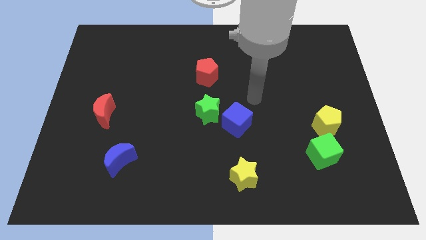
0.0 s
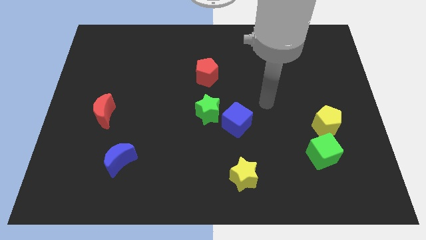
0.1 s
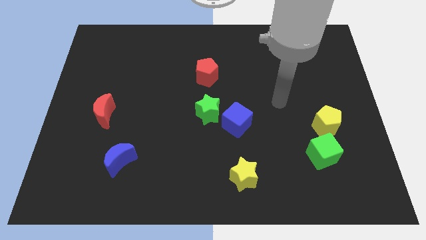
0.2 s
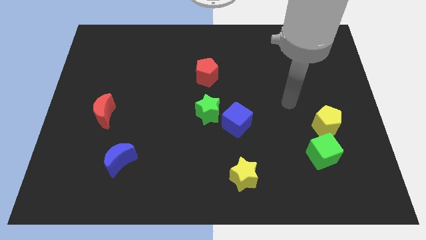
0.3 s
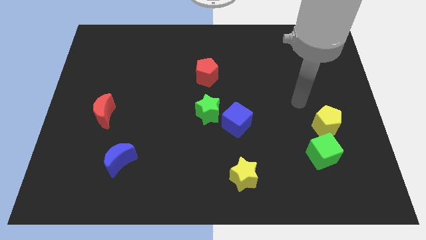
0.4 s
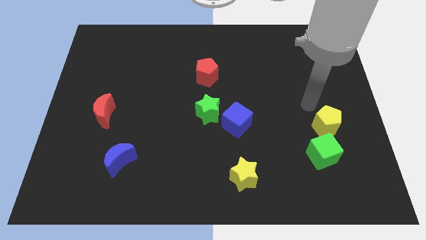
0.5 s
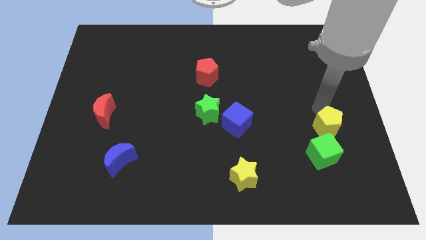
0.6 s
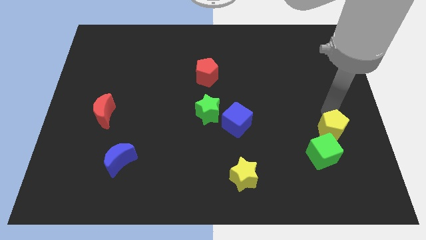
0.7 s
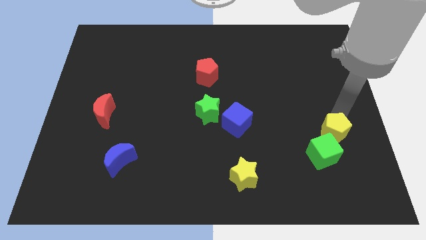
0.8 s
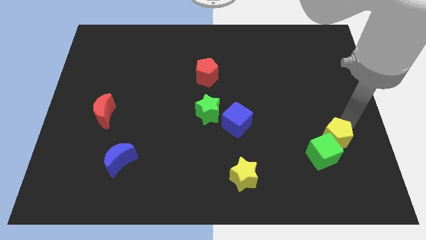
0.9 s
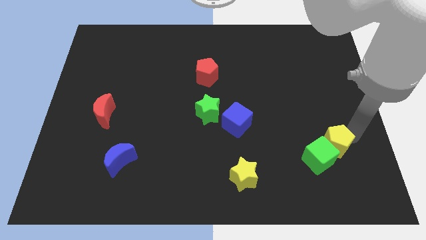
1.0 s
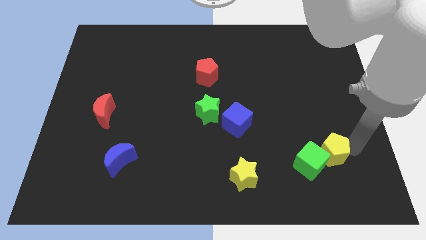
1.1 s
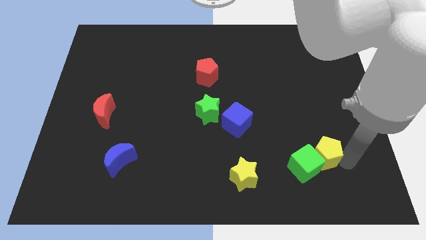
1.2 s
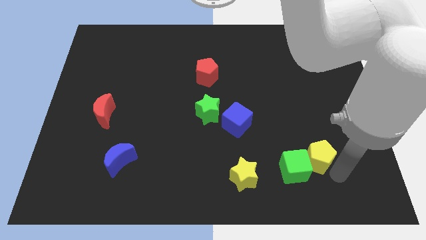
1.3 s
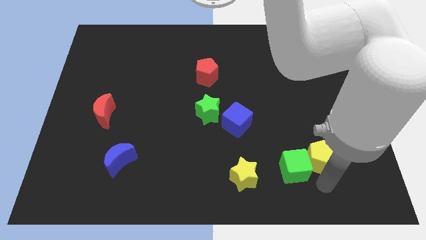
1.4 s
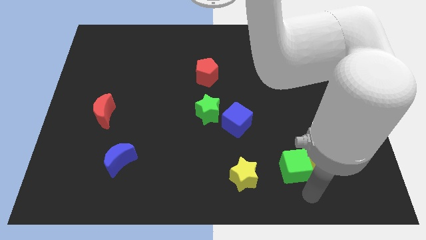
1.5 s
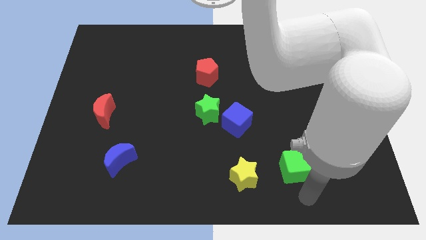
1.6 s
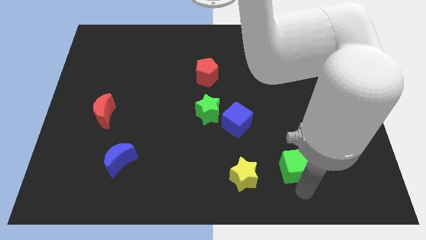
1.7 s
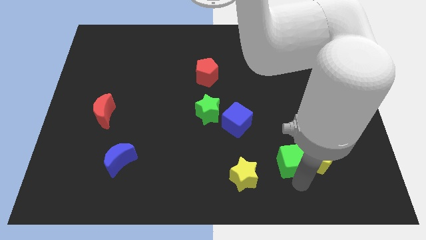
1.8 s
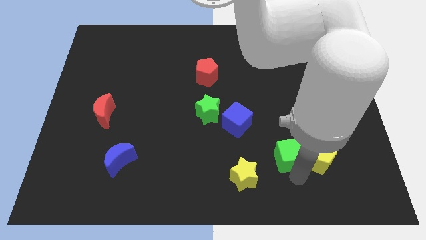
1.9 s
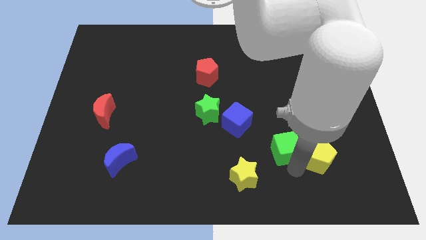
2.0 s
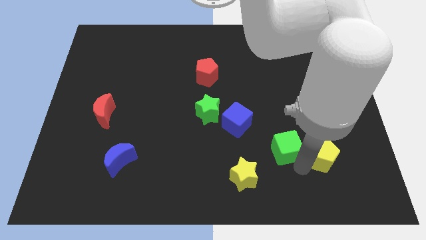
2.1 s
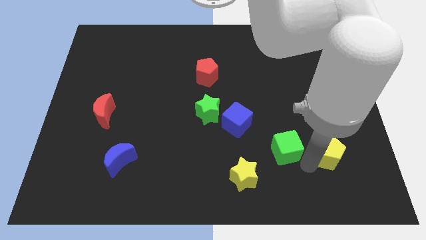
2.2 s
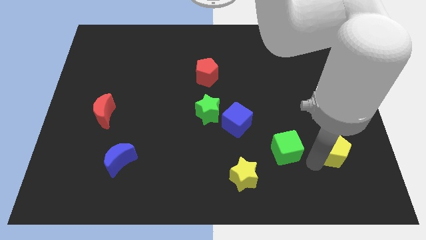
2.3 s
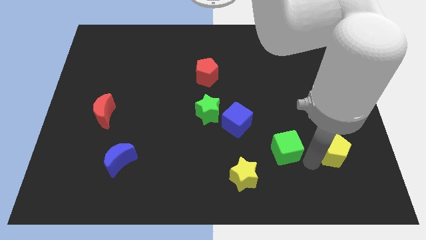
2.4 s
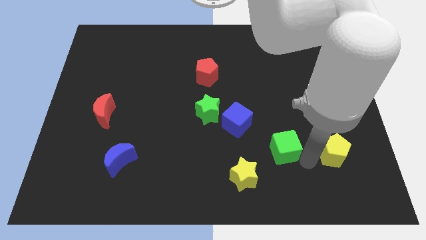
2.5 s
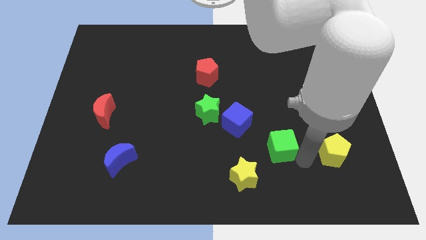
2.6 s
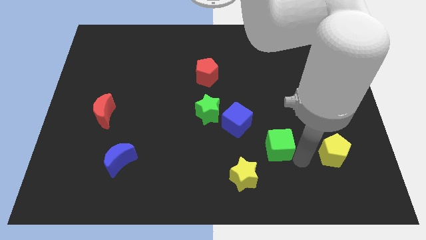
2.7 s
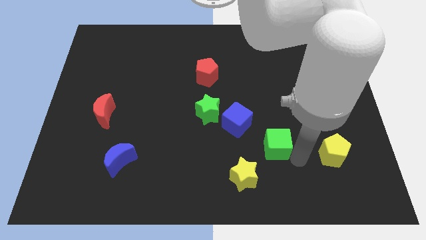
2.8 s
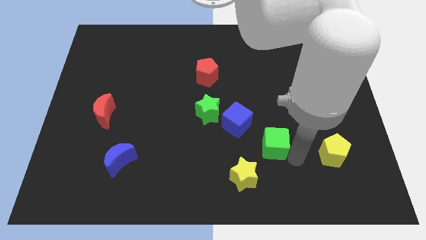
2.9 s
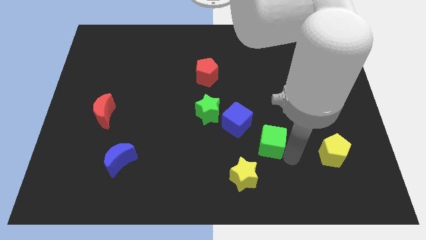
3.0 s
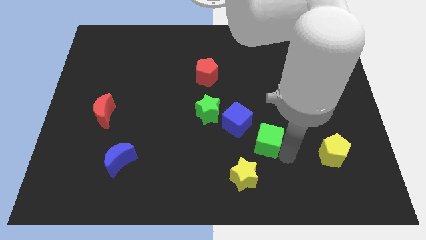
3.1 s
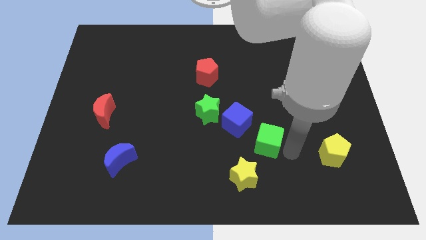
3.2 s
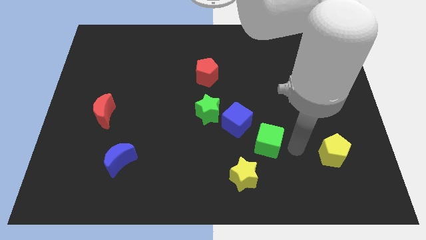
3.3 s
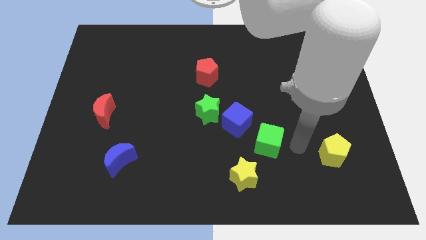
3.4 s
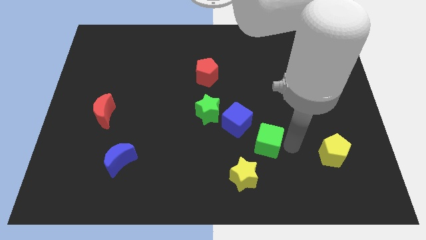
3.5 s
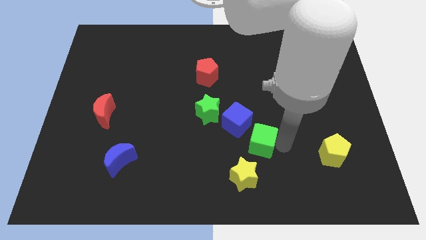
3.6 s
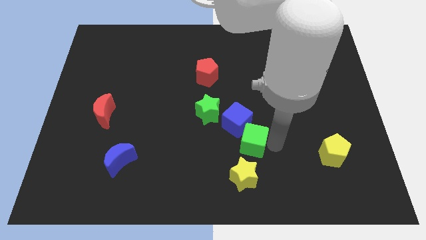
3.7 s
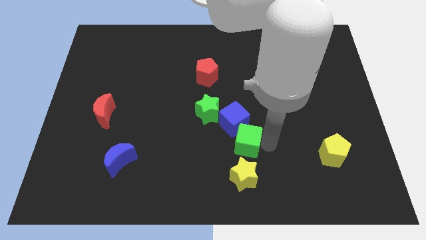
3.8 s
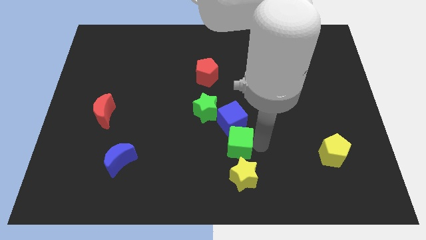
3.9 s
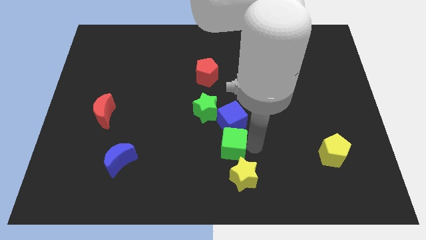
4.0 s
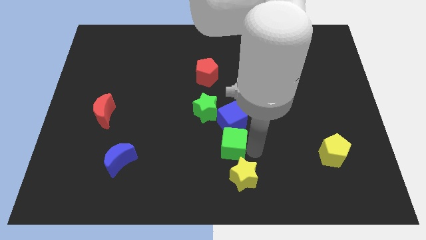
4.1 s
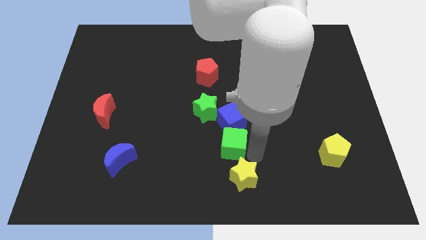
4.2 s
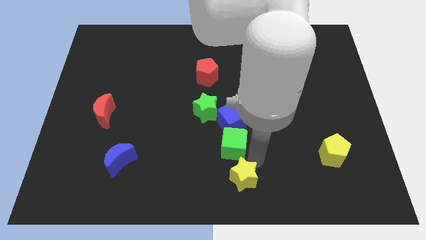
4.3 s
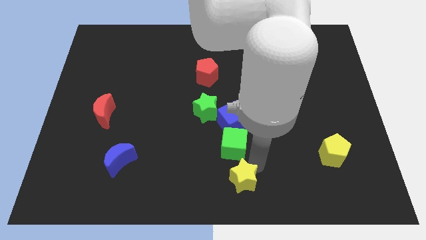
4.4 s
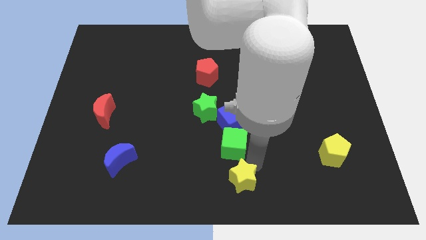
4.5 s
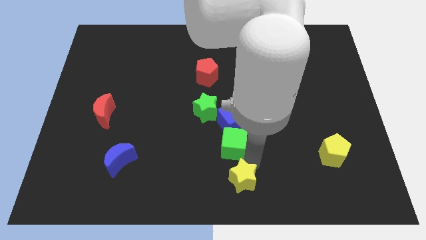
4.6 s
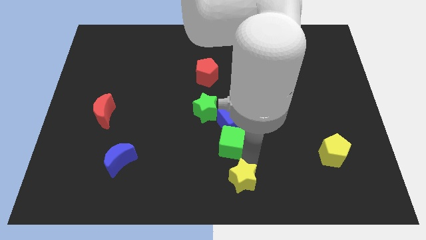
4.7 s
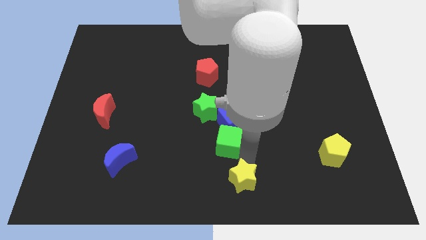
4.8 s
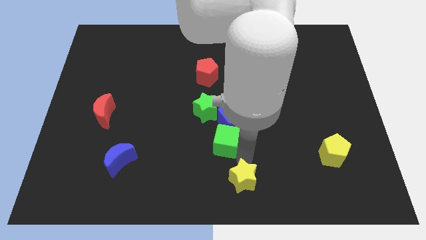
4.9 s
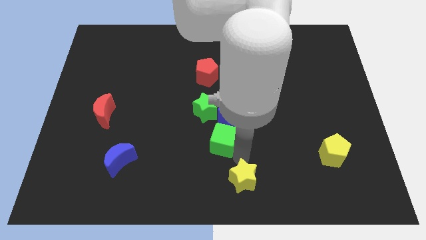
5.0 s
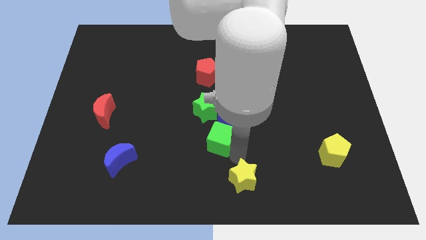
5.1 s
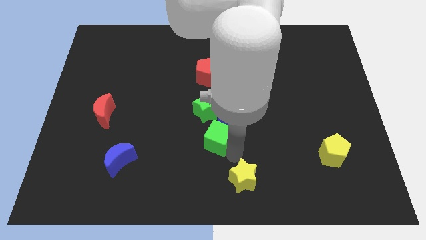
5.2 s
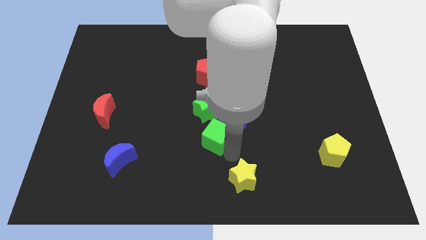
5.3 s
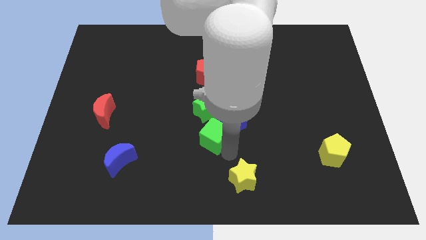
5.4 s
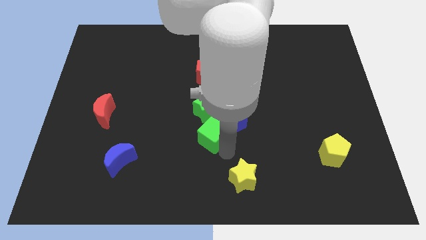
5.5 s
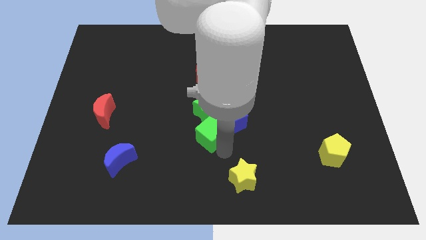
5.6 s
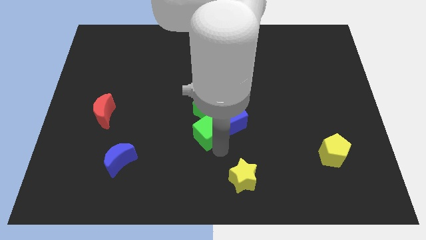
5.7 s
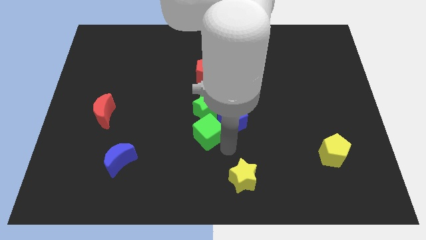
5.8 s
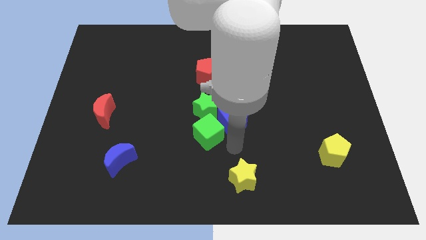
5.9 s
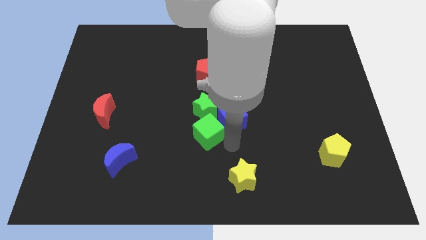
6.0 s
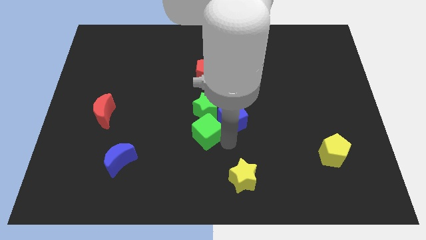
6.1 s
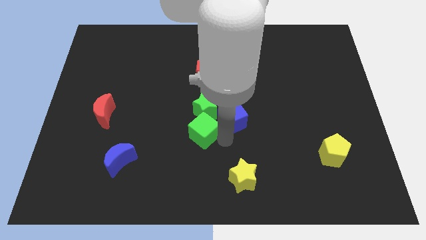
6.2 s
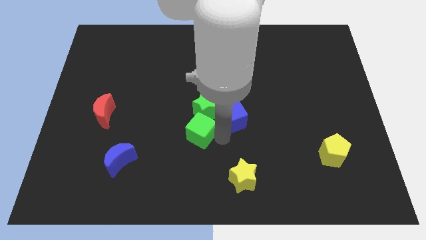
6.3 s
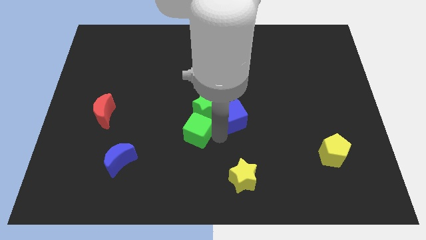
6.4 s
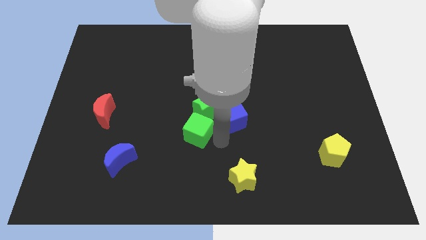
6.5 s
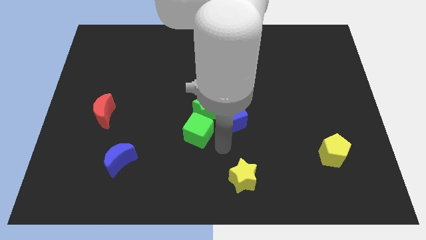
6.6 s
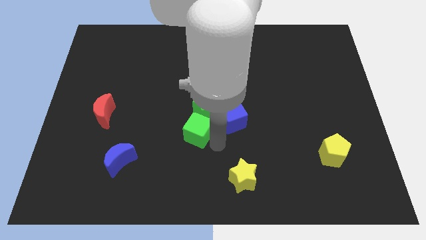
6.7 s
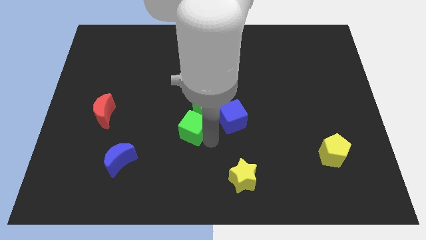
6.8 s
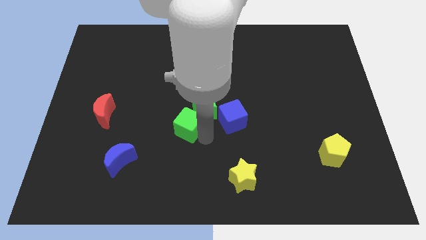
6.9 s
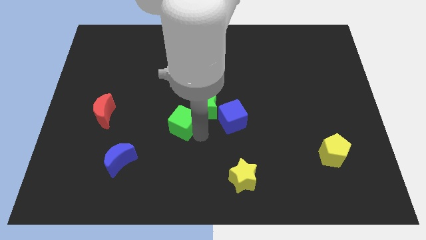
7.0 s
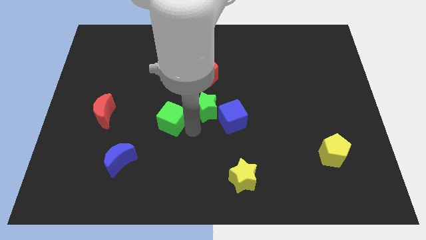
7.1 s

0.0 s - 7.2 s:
push the green cube just right of the red moon
